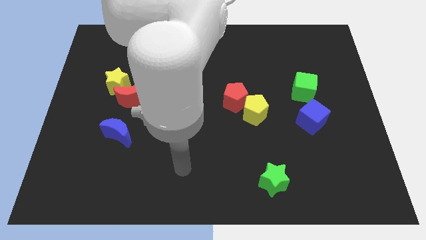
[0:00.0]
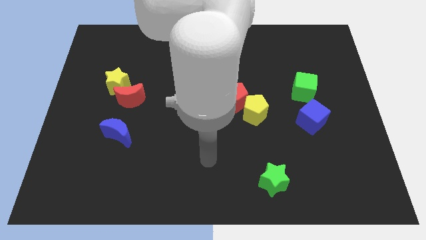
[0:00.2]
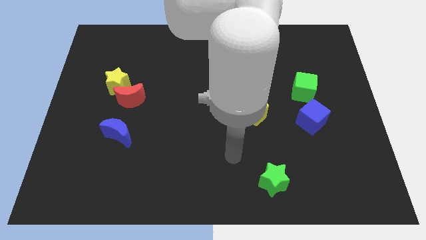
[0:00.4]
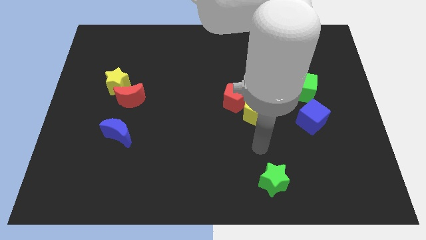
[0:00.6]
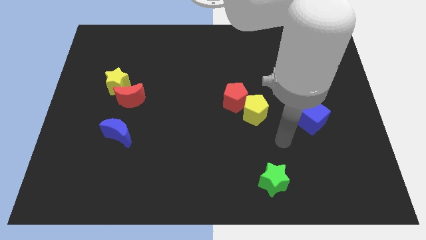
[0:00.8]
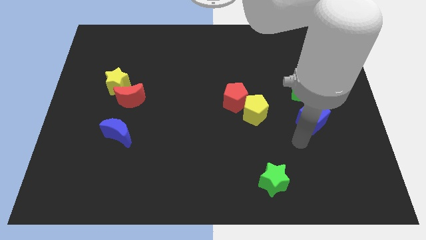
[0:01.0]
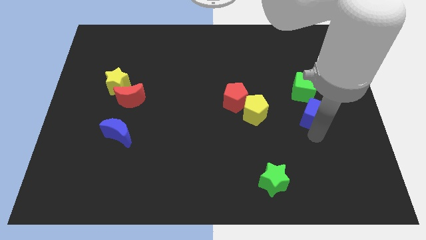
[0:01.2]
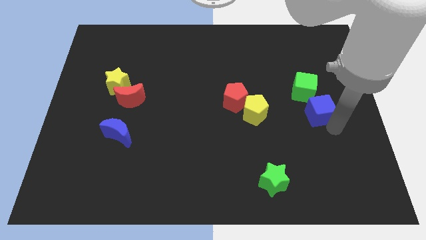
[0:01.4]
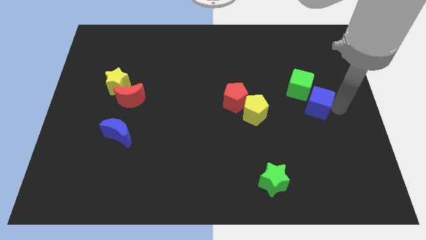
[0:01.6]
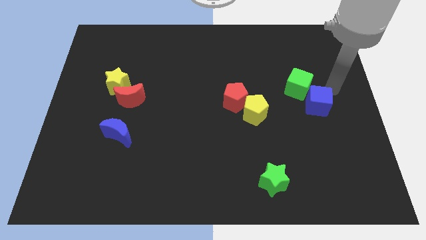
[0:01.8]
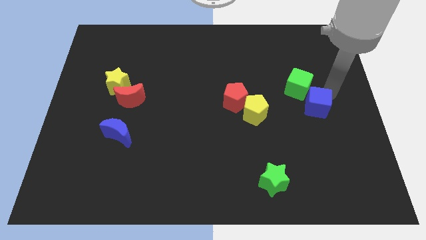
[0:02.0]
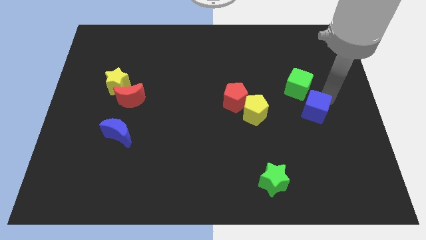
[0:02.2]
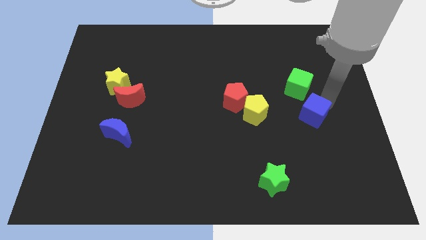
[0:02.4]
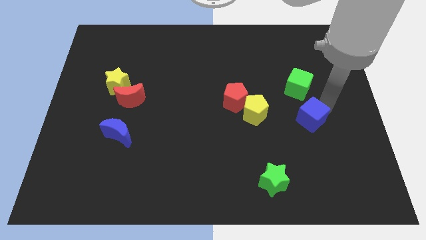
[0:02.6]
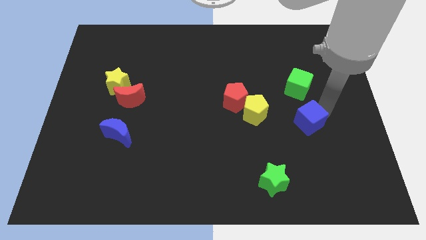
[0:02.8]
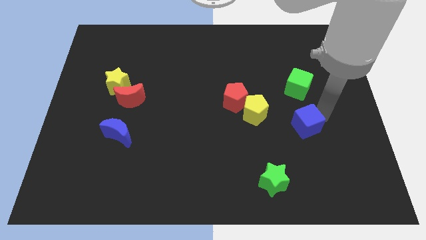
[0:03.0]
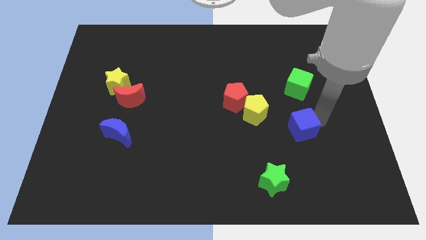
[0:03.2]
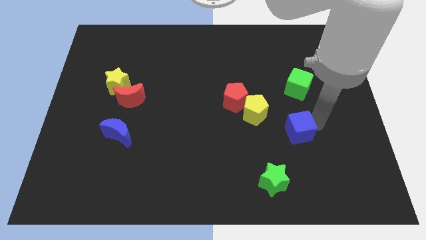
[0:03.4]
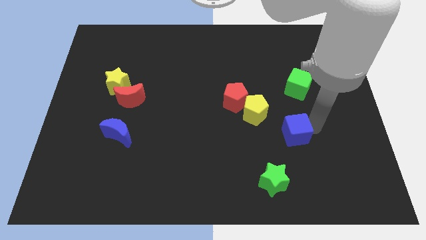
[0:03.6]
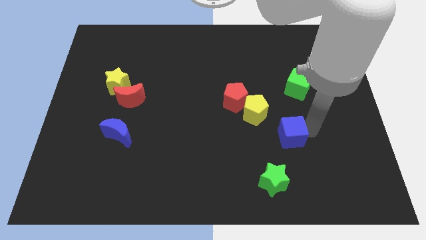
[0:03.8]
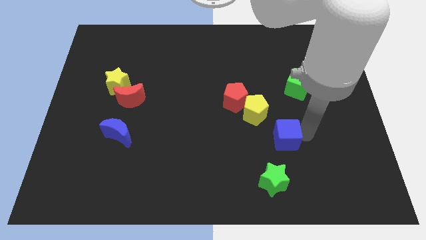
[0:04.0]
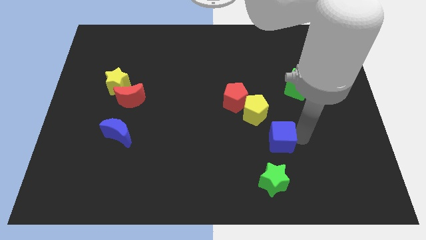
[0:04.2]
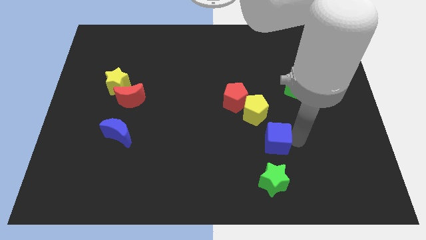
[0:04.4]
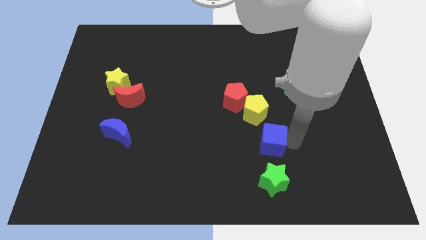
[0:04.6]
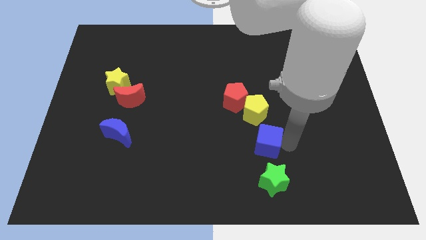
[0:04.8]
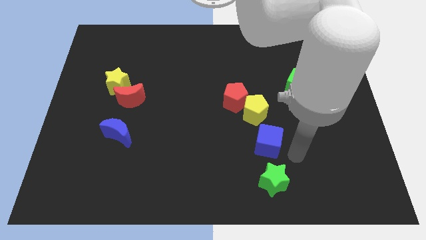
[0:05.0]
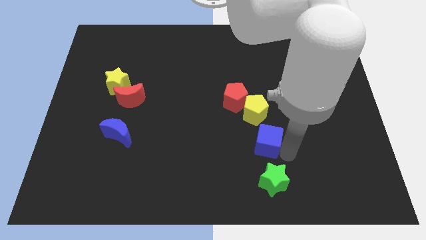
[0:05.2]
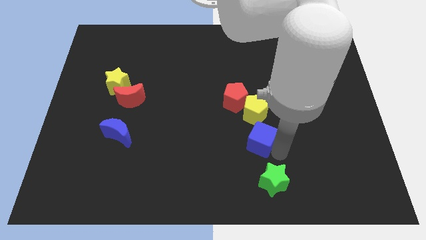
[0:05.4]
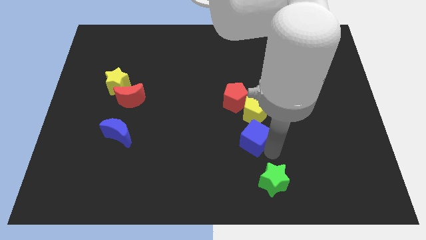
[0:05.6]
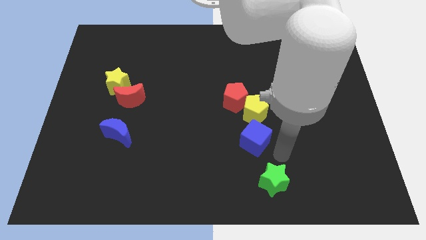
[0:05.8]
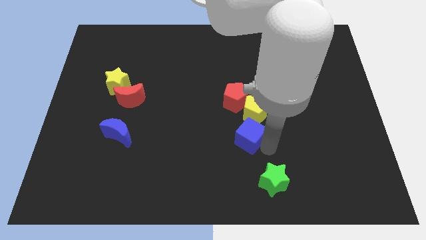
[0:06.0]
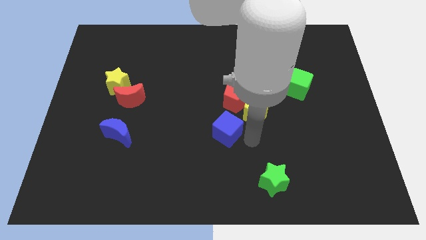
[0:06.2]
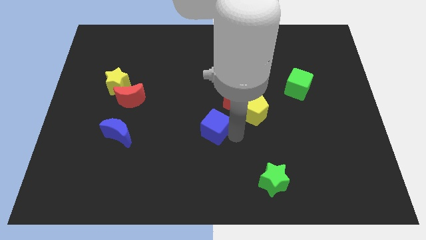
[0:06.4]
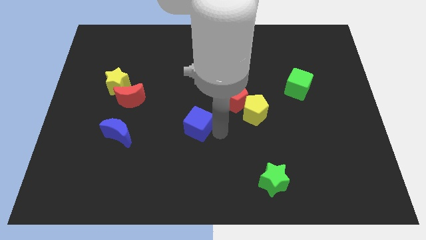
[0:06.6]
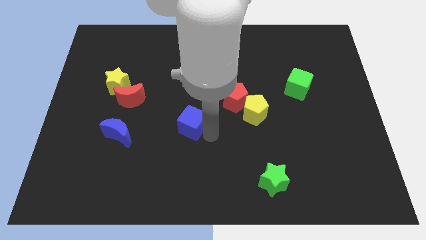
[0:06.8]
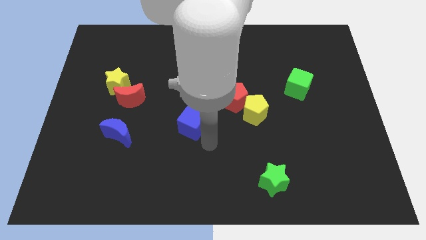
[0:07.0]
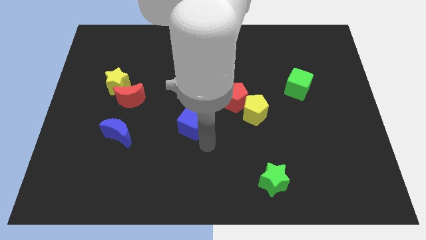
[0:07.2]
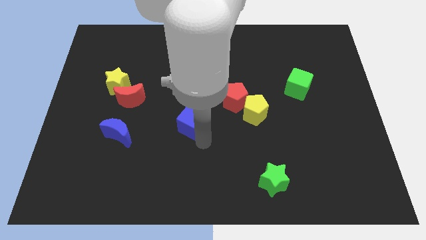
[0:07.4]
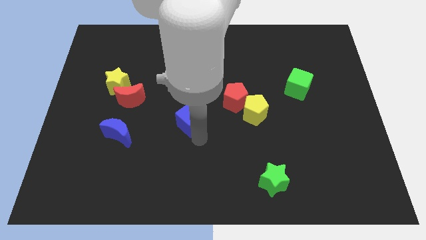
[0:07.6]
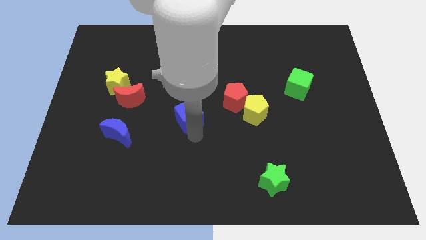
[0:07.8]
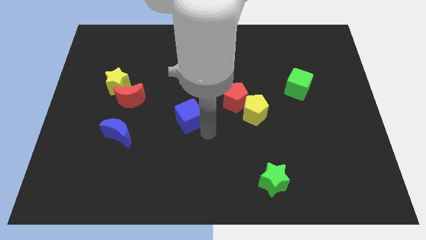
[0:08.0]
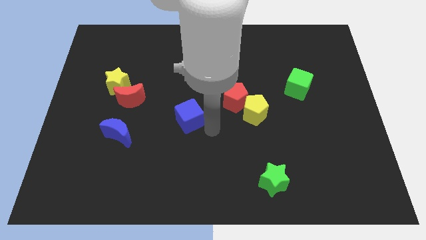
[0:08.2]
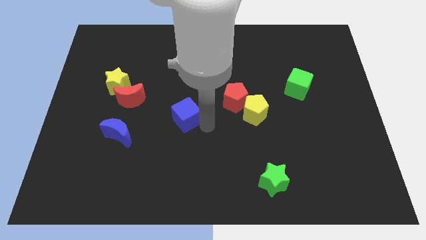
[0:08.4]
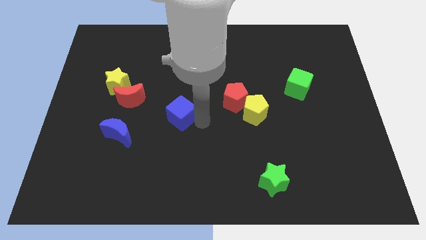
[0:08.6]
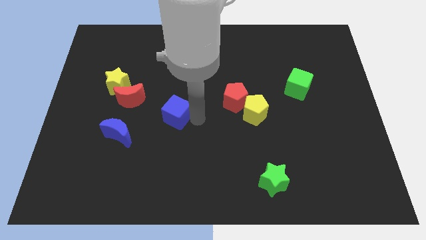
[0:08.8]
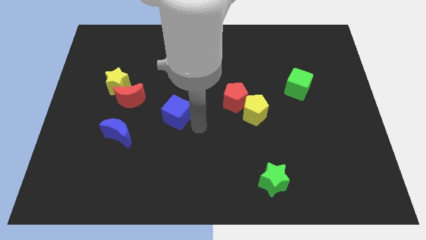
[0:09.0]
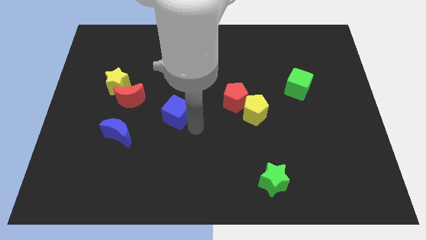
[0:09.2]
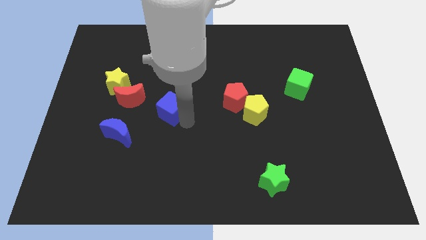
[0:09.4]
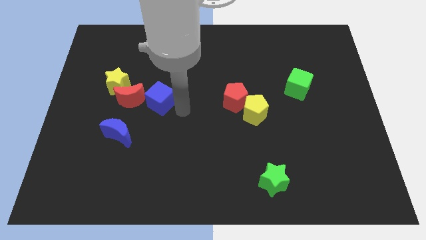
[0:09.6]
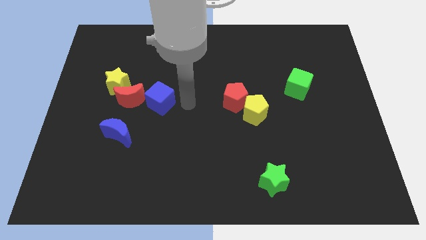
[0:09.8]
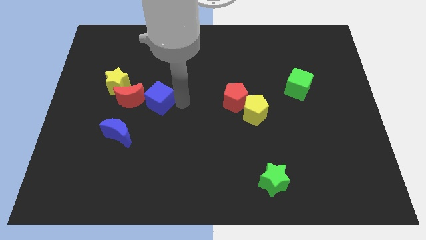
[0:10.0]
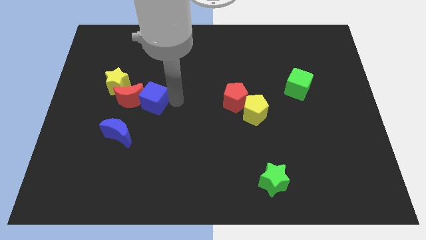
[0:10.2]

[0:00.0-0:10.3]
push the blue cube next to the red moon

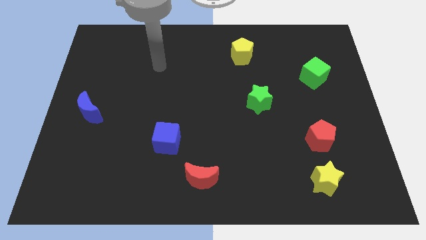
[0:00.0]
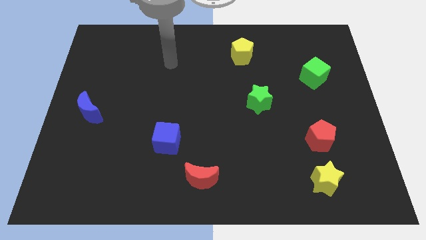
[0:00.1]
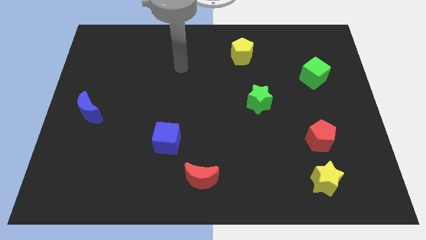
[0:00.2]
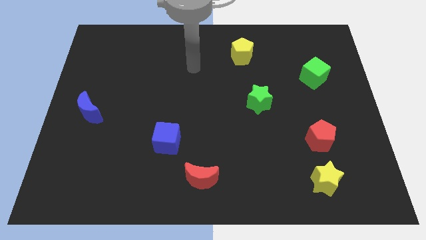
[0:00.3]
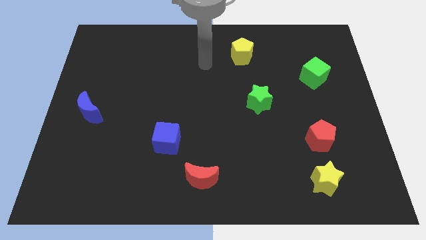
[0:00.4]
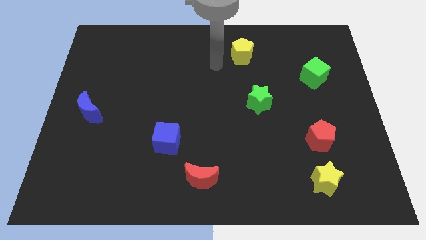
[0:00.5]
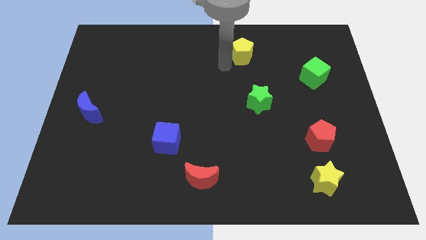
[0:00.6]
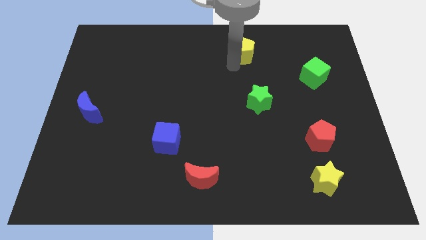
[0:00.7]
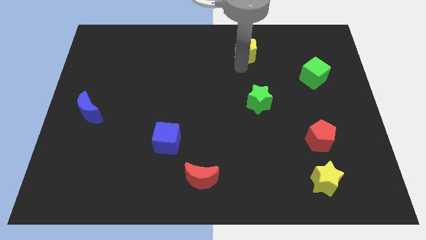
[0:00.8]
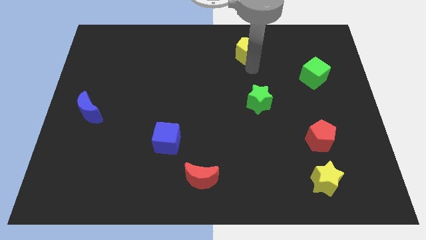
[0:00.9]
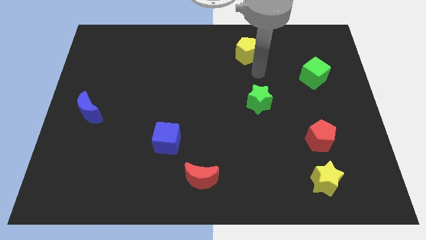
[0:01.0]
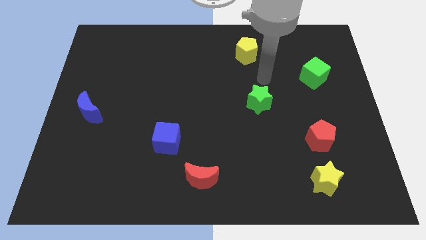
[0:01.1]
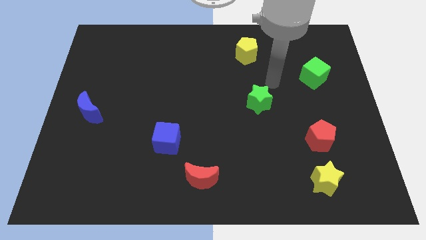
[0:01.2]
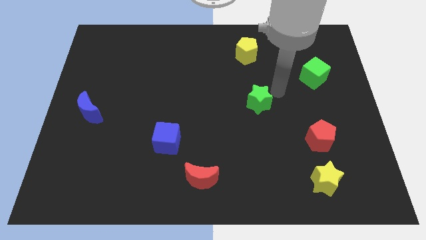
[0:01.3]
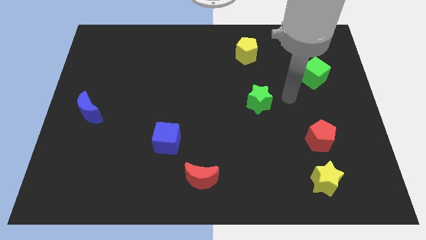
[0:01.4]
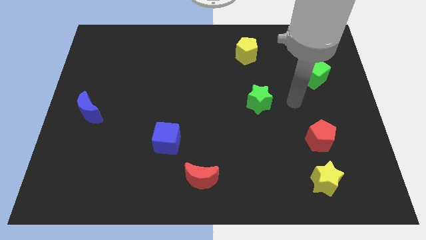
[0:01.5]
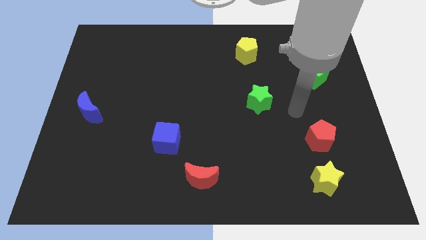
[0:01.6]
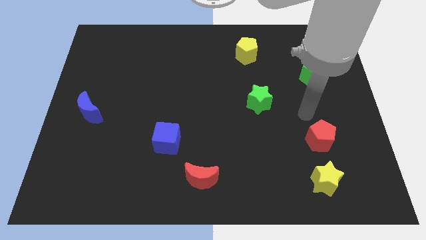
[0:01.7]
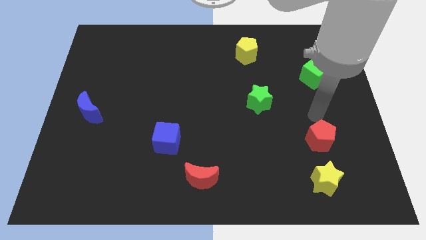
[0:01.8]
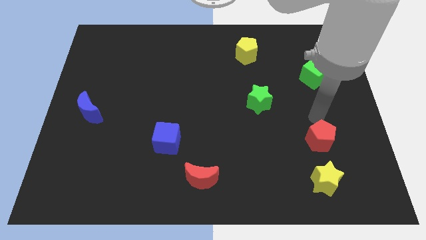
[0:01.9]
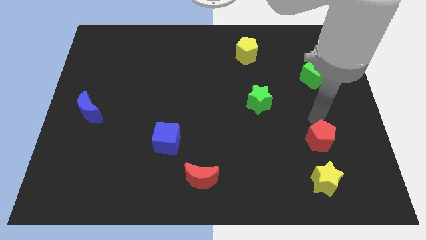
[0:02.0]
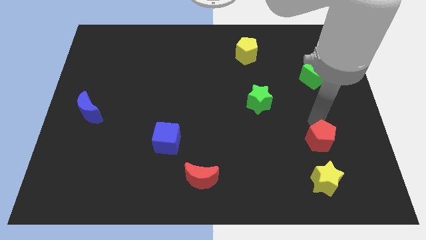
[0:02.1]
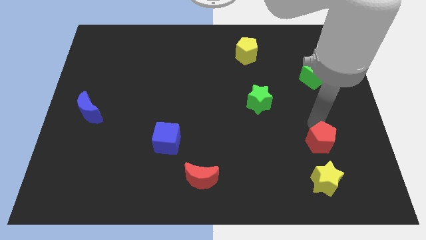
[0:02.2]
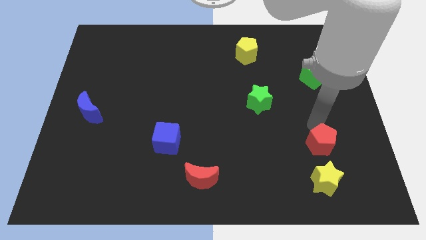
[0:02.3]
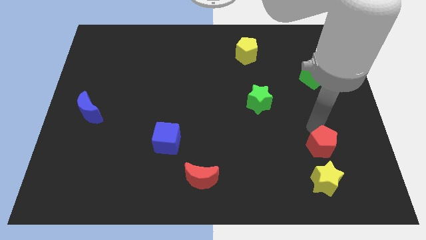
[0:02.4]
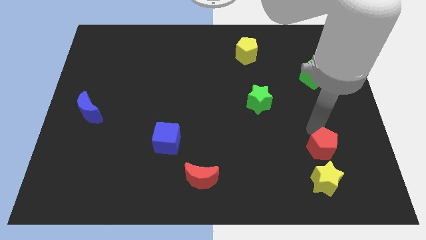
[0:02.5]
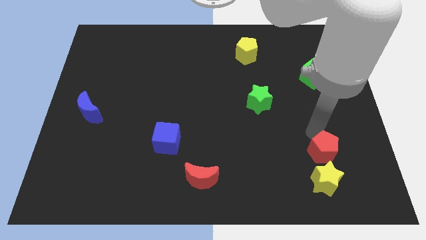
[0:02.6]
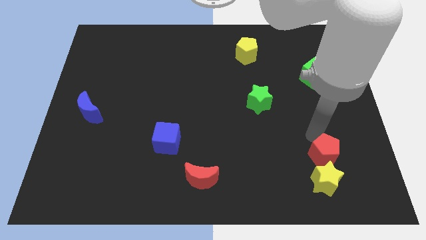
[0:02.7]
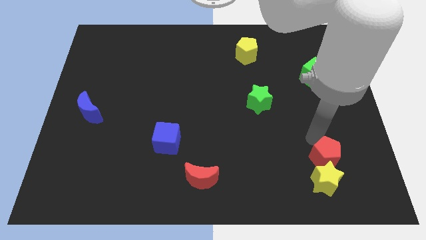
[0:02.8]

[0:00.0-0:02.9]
slide the red pentagon towards the yellow star
